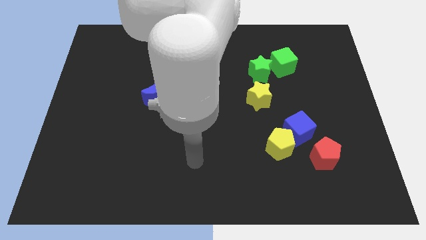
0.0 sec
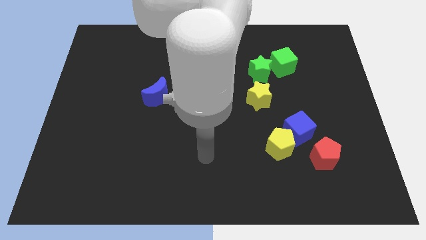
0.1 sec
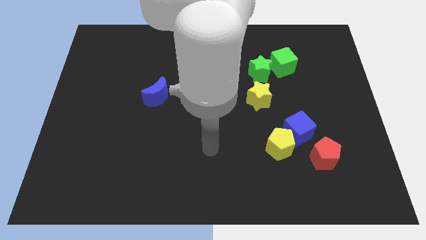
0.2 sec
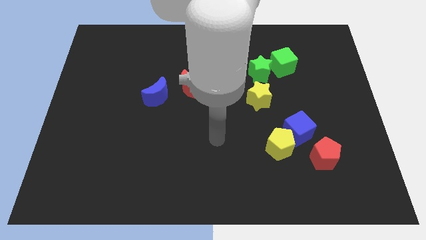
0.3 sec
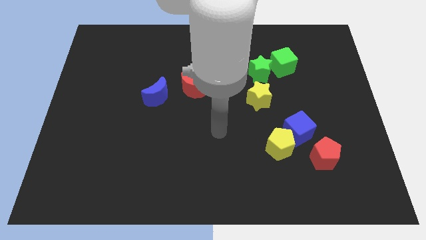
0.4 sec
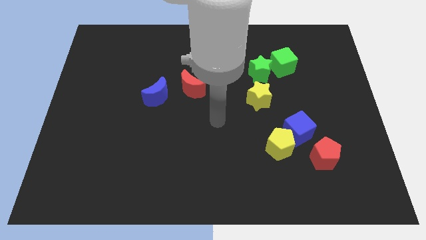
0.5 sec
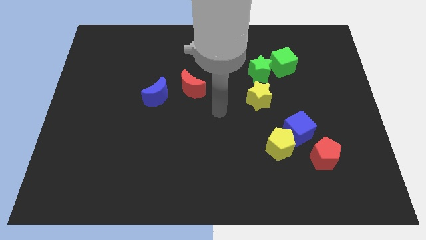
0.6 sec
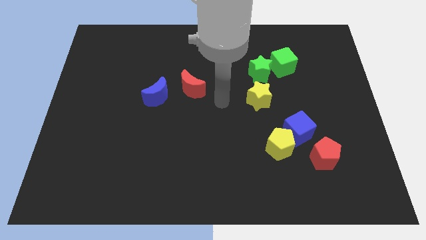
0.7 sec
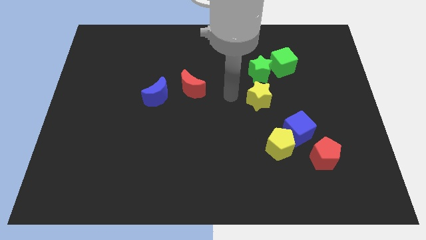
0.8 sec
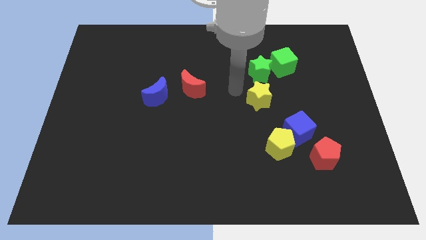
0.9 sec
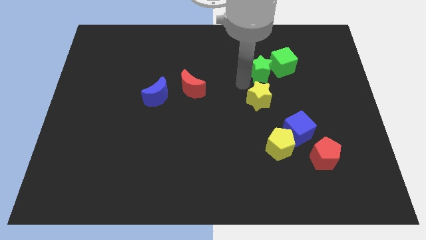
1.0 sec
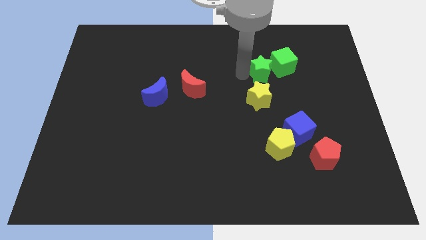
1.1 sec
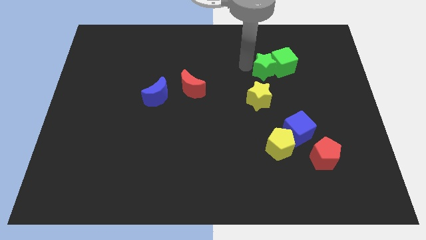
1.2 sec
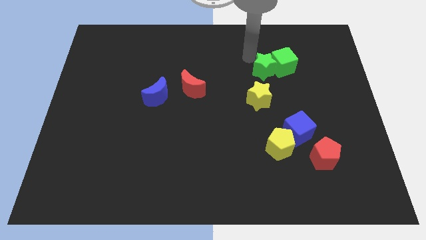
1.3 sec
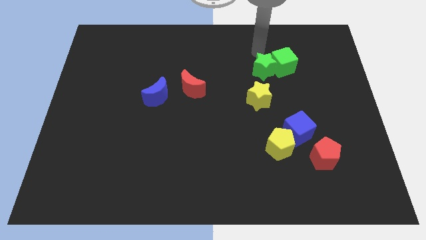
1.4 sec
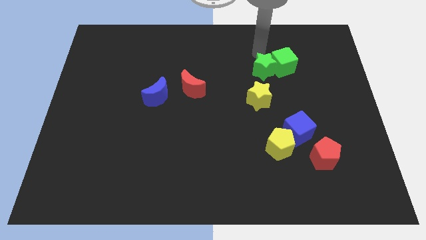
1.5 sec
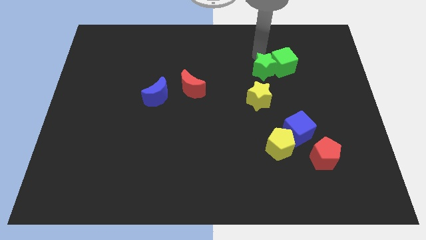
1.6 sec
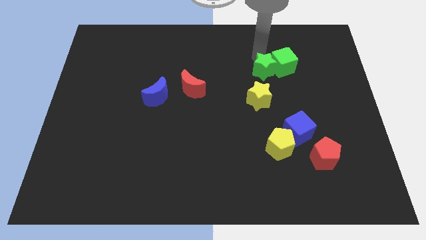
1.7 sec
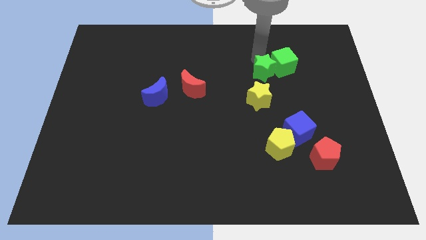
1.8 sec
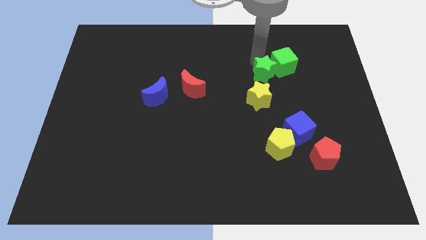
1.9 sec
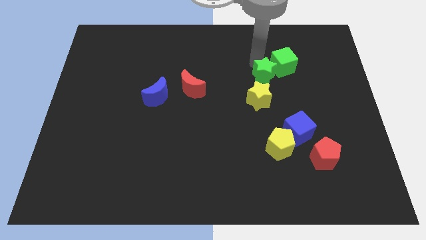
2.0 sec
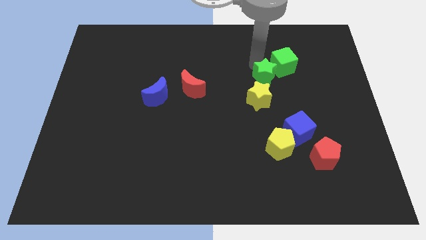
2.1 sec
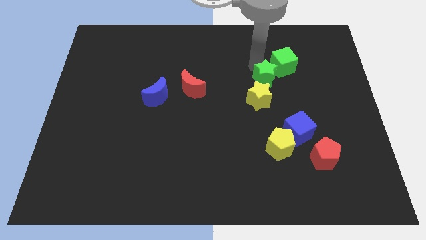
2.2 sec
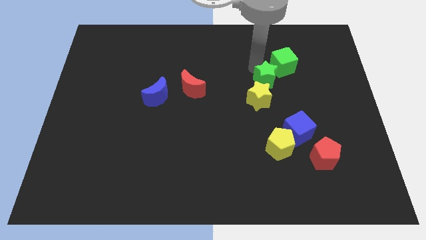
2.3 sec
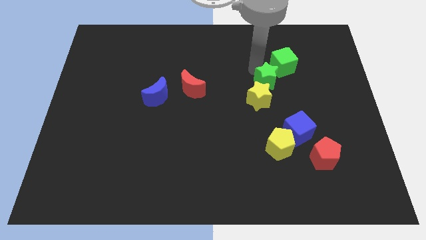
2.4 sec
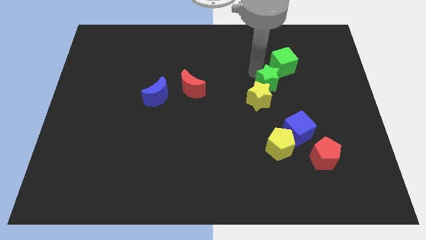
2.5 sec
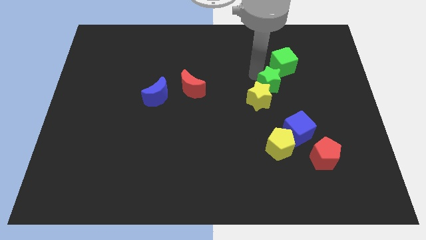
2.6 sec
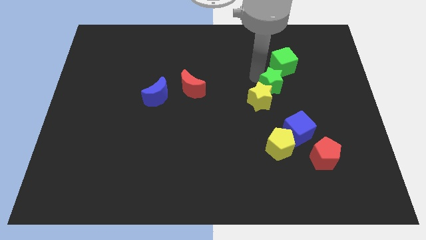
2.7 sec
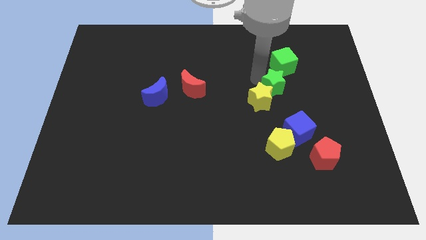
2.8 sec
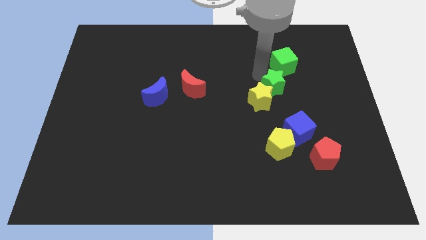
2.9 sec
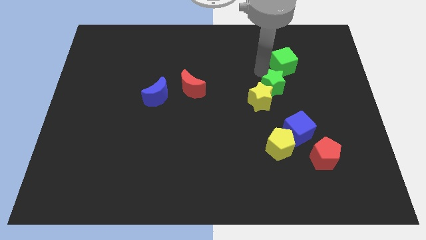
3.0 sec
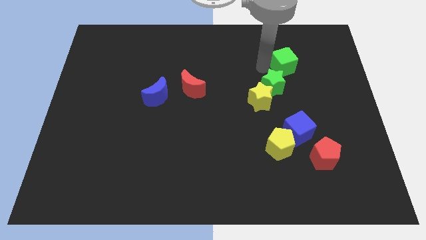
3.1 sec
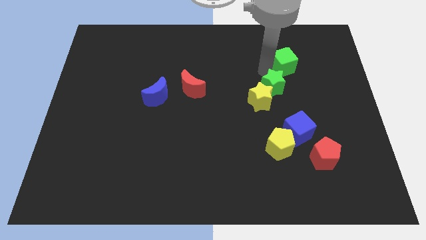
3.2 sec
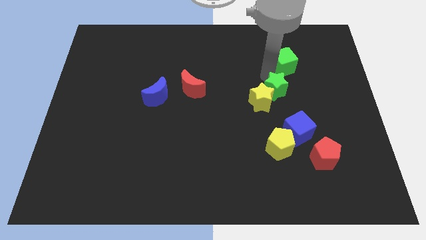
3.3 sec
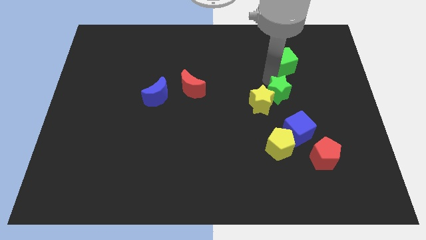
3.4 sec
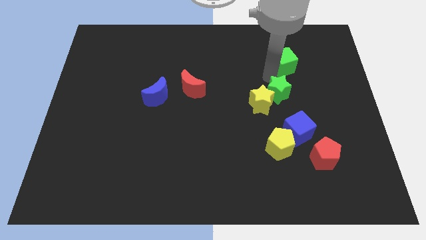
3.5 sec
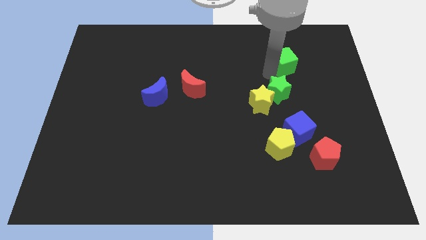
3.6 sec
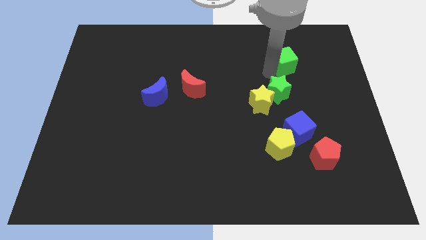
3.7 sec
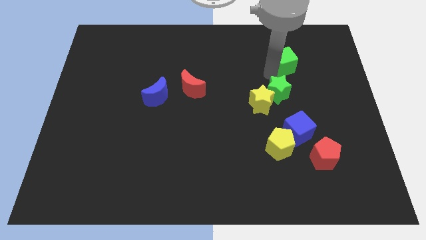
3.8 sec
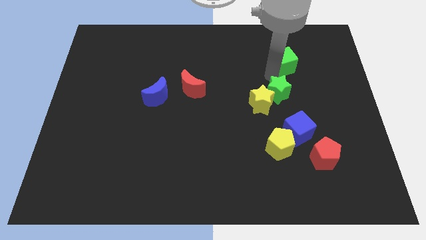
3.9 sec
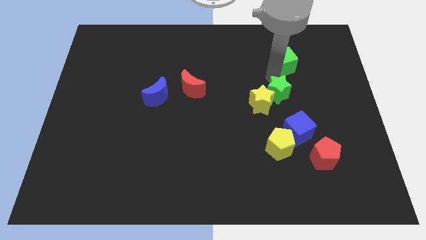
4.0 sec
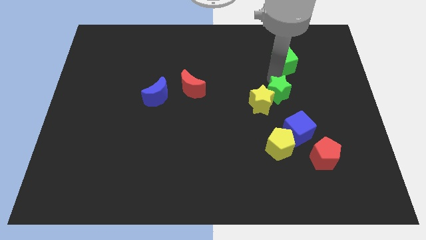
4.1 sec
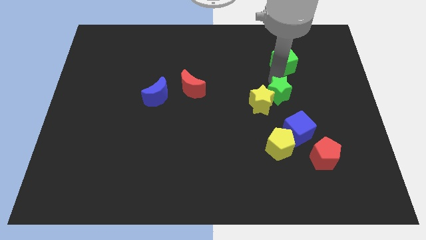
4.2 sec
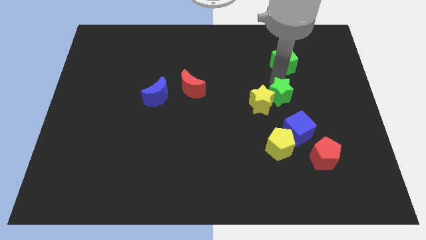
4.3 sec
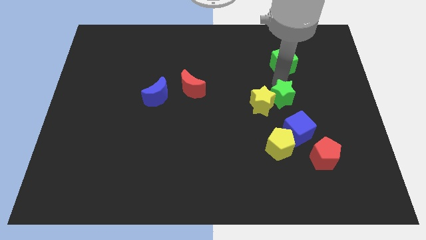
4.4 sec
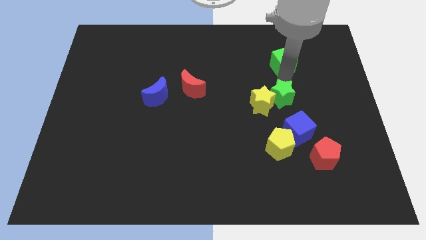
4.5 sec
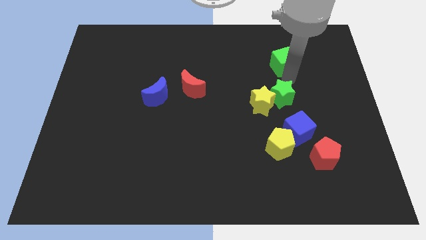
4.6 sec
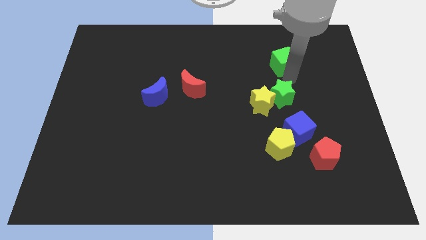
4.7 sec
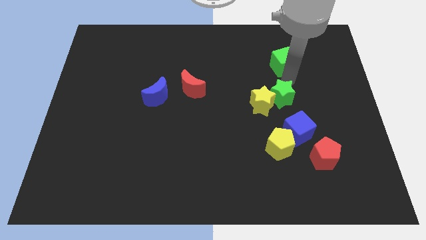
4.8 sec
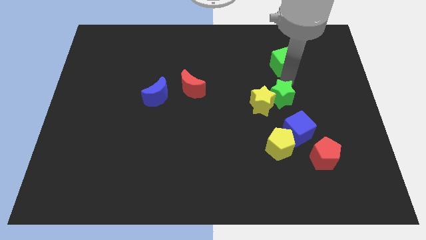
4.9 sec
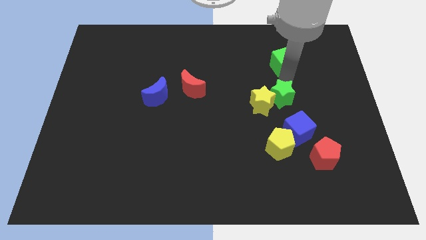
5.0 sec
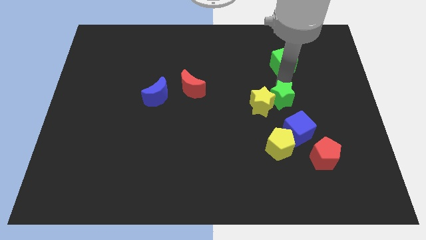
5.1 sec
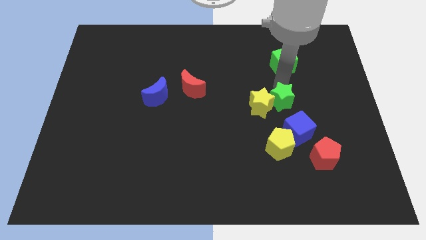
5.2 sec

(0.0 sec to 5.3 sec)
put the green star to the top left side of the blue cube

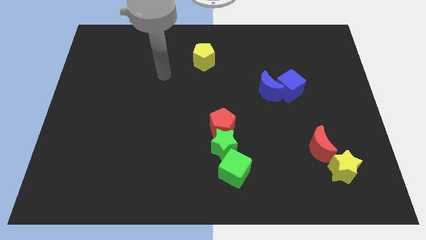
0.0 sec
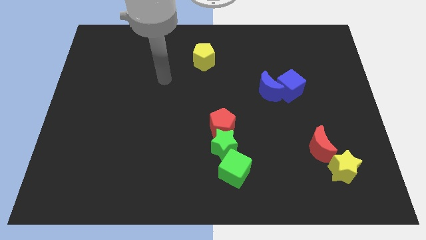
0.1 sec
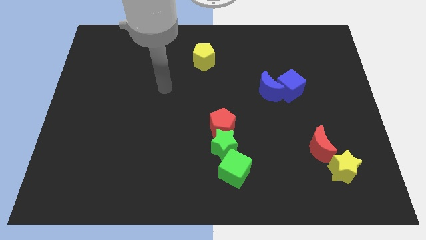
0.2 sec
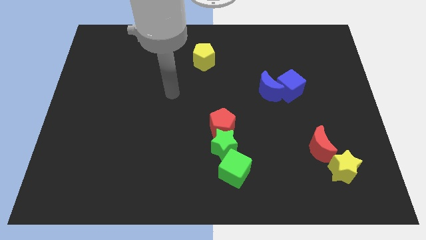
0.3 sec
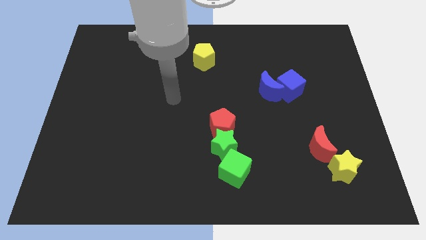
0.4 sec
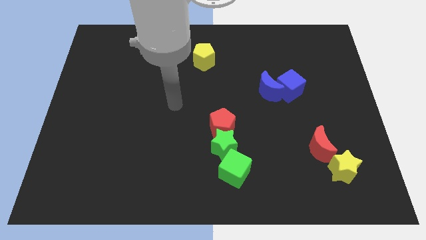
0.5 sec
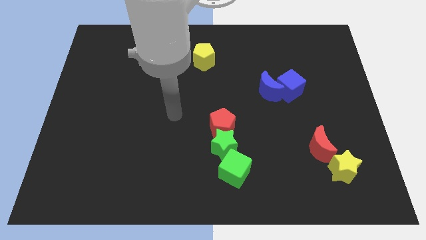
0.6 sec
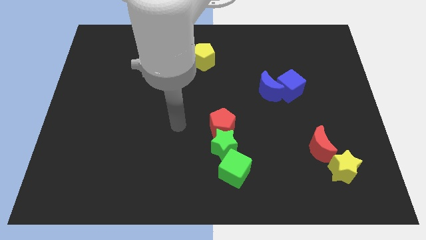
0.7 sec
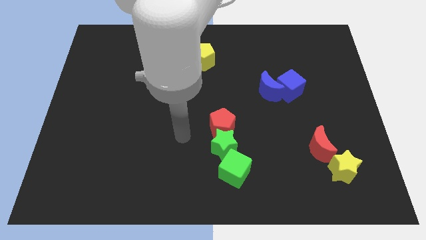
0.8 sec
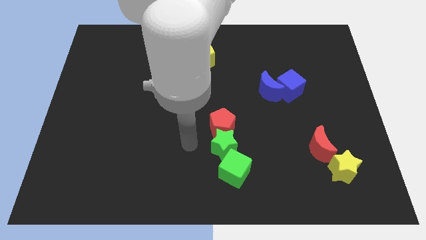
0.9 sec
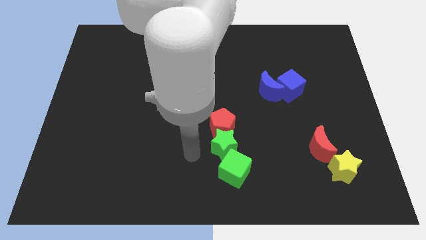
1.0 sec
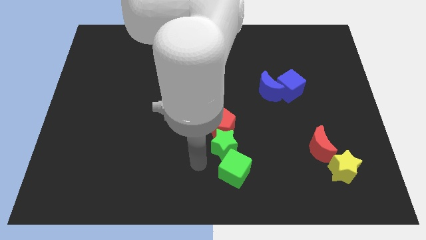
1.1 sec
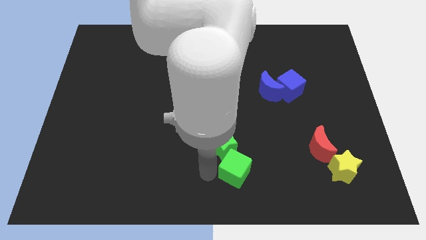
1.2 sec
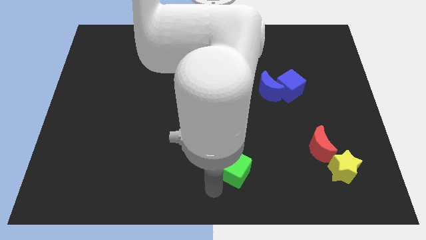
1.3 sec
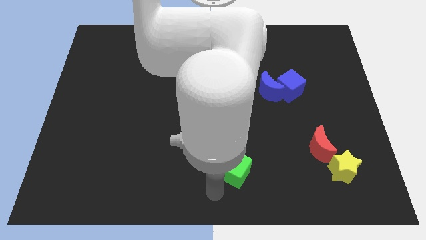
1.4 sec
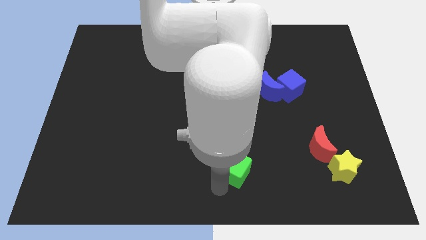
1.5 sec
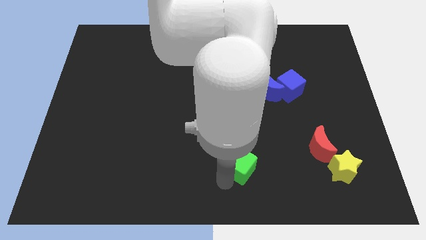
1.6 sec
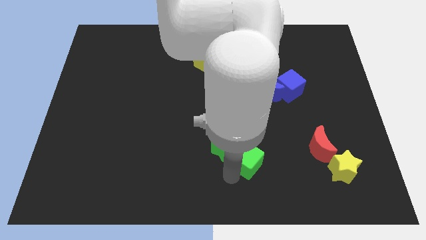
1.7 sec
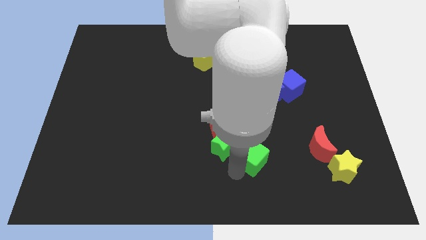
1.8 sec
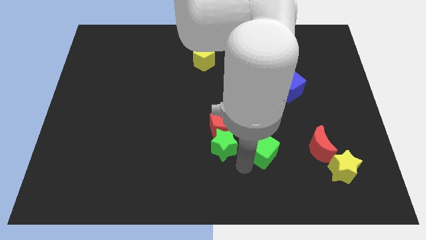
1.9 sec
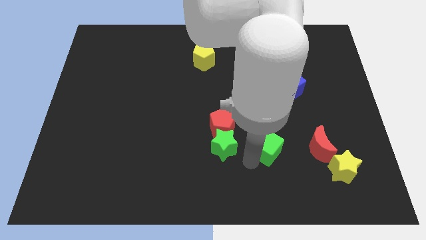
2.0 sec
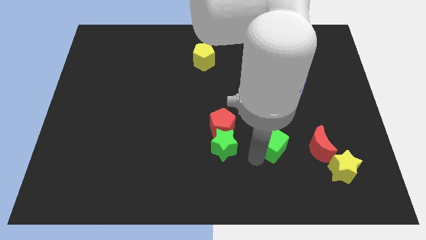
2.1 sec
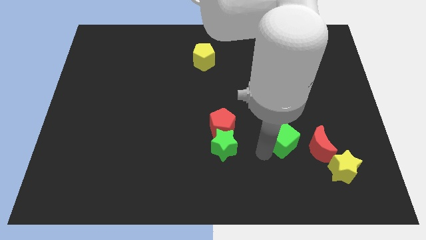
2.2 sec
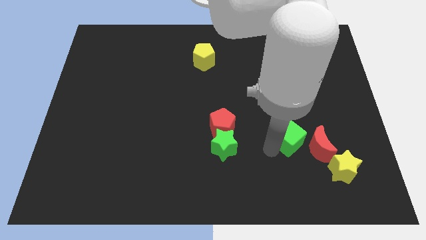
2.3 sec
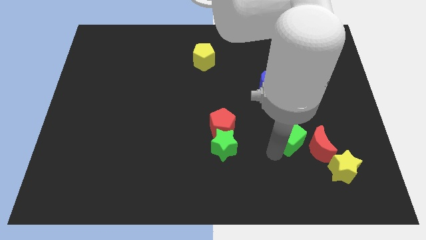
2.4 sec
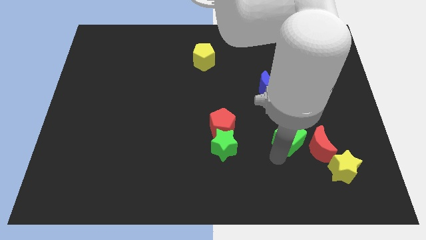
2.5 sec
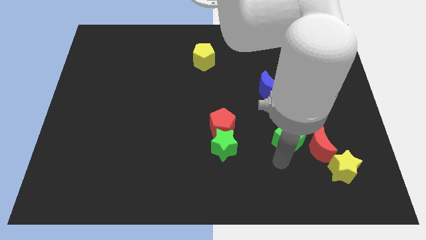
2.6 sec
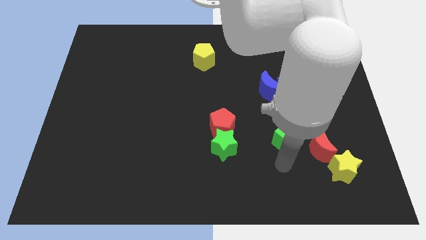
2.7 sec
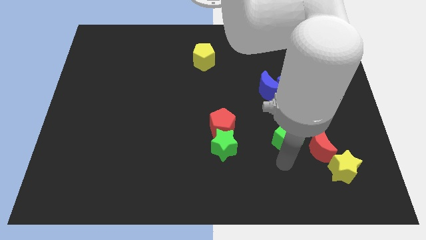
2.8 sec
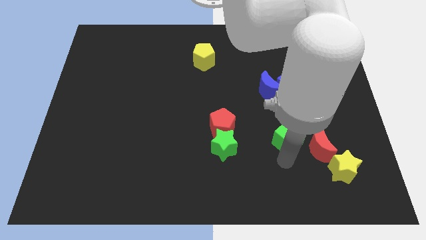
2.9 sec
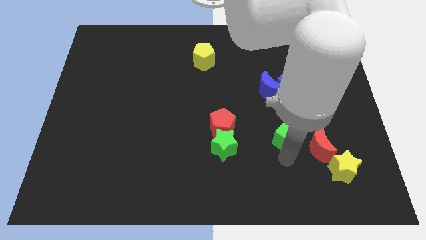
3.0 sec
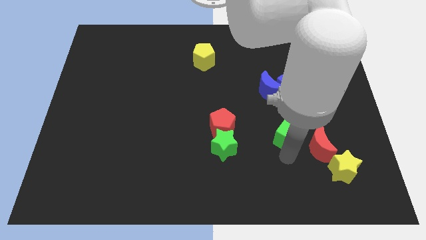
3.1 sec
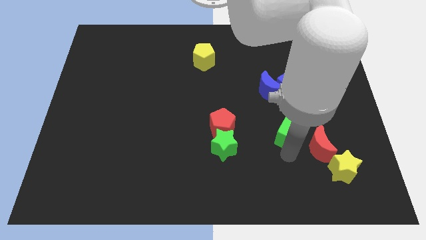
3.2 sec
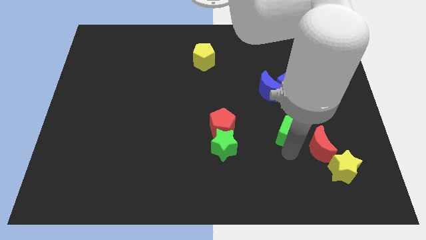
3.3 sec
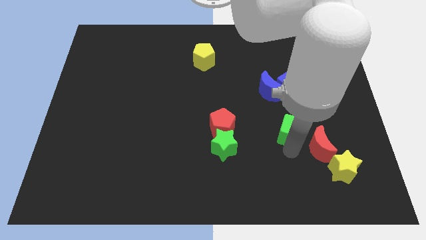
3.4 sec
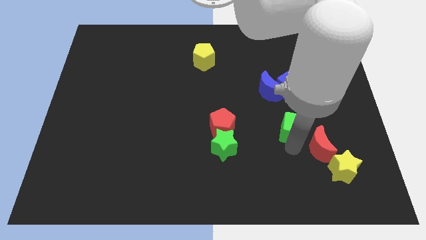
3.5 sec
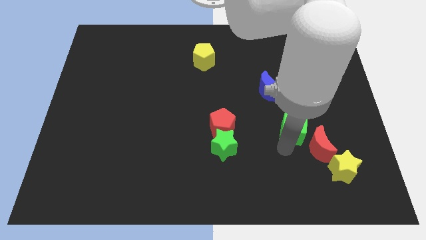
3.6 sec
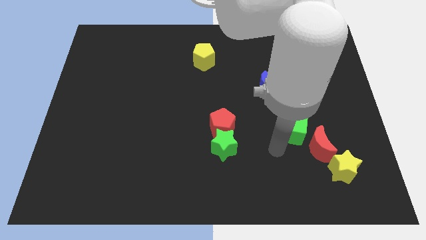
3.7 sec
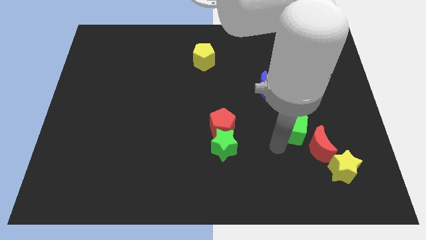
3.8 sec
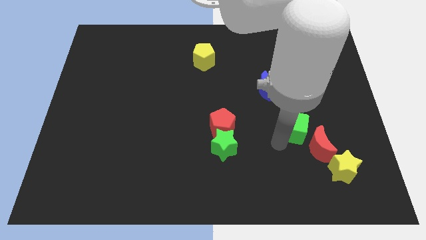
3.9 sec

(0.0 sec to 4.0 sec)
push the green cube to the top of the red moon
